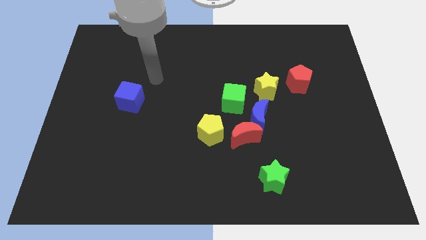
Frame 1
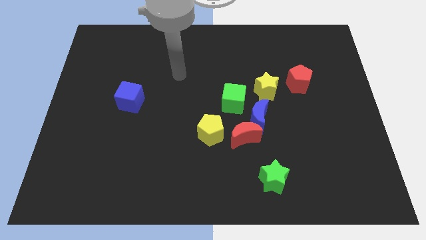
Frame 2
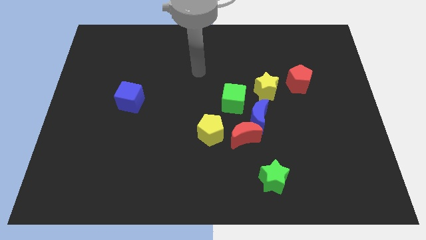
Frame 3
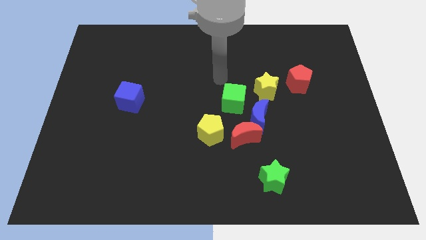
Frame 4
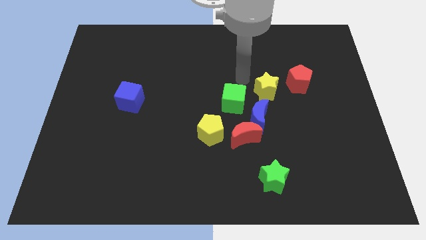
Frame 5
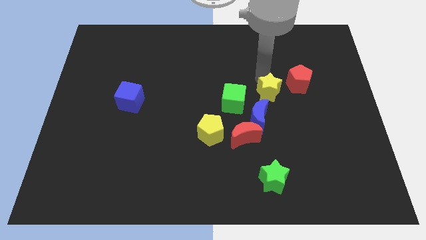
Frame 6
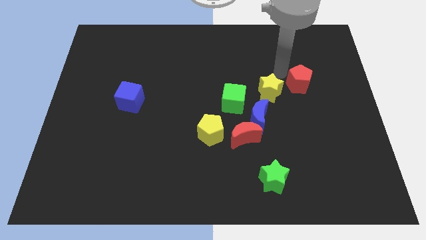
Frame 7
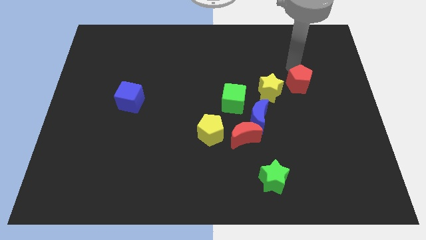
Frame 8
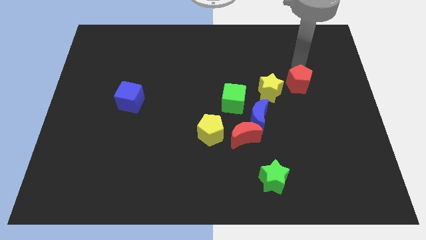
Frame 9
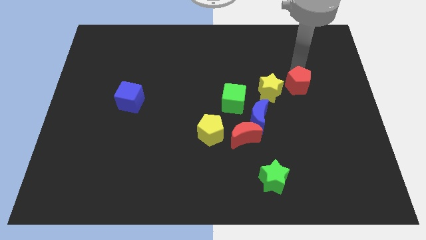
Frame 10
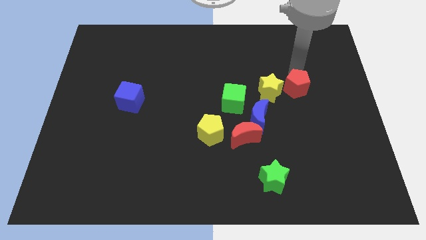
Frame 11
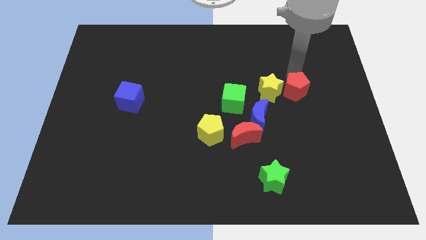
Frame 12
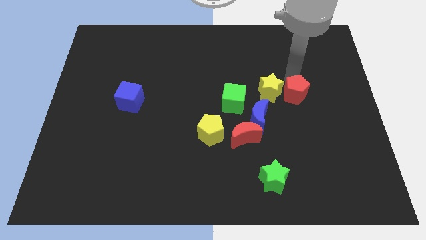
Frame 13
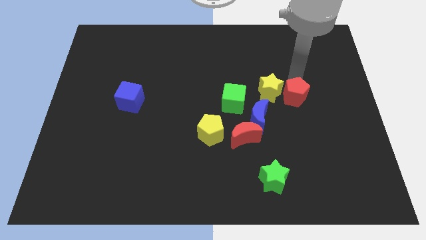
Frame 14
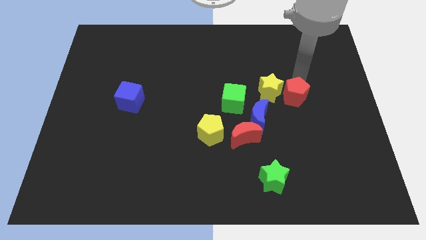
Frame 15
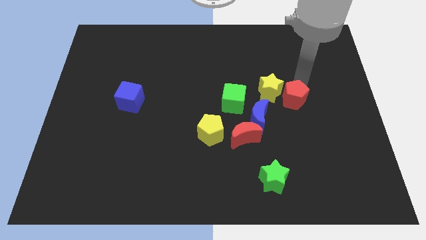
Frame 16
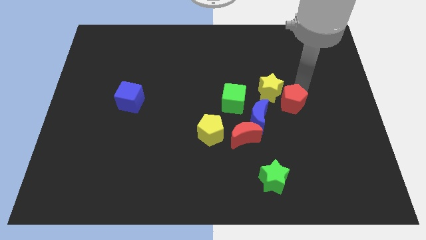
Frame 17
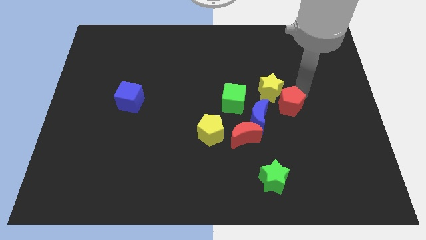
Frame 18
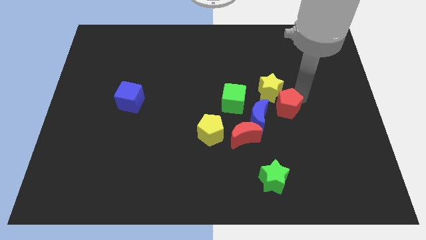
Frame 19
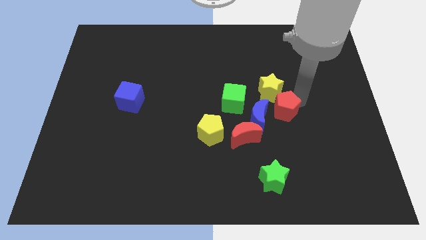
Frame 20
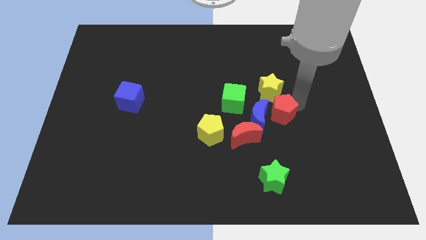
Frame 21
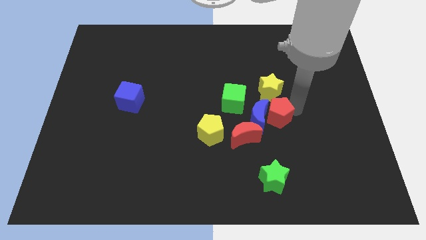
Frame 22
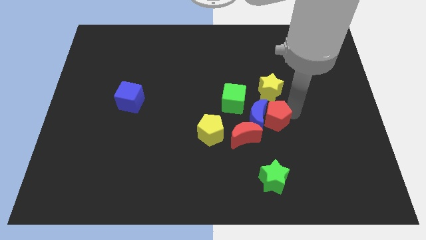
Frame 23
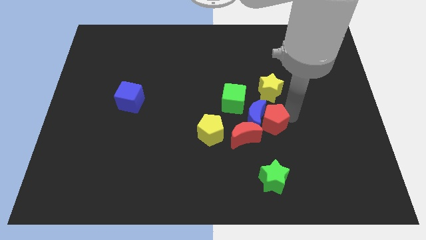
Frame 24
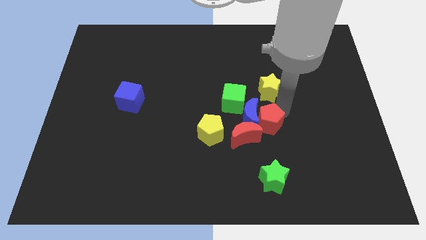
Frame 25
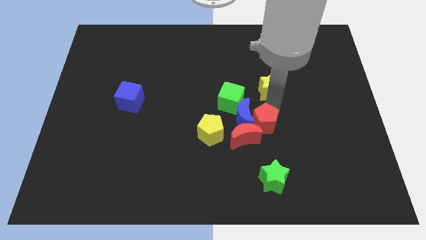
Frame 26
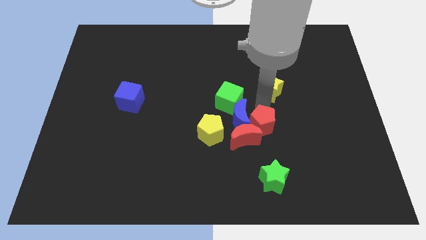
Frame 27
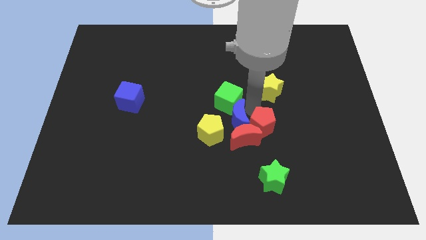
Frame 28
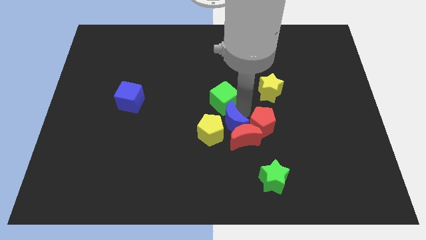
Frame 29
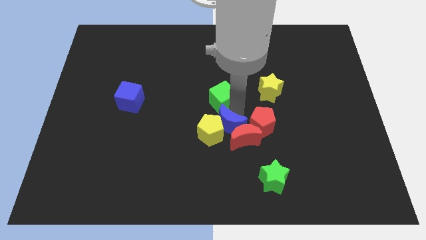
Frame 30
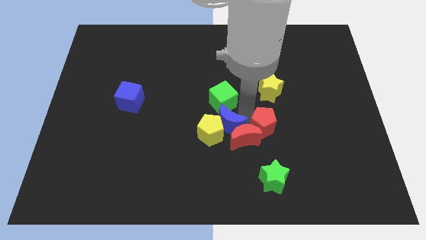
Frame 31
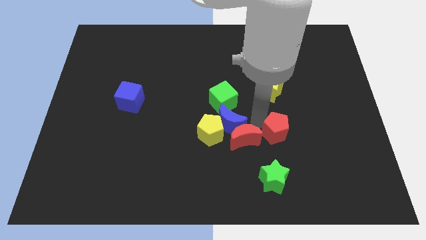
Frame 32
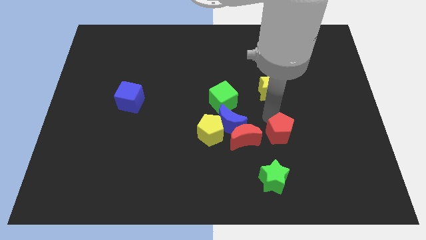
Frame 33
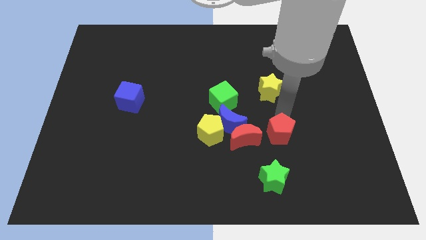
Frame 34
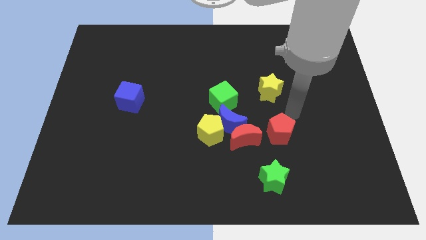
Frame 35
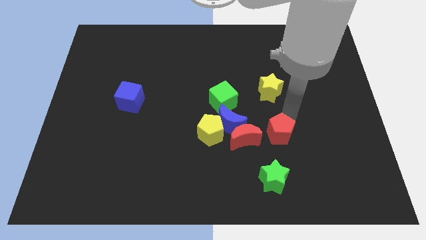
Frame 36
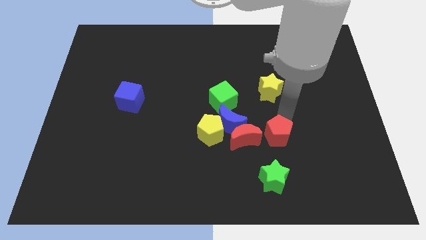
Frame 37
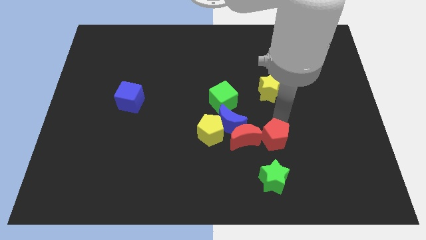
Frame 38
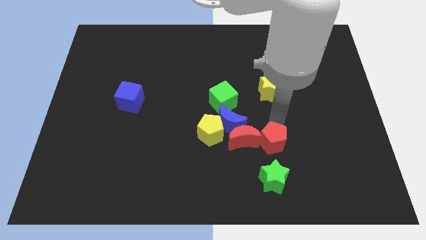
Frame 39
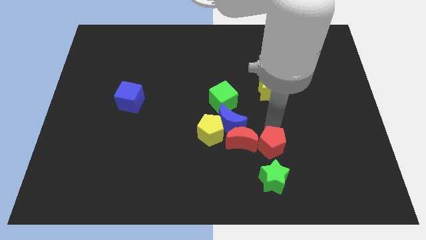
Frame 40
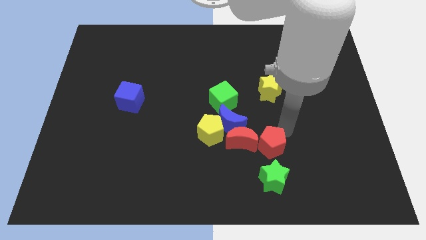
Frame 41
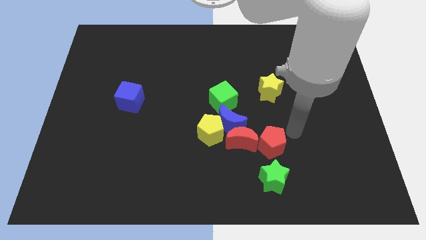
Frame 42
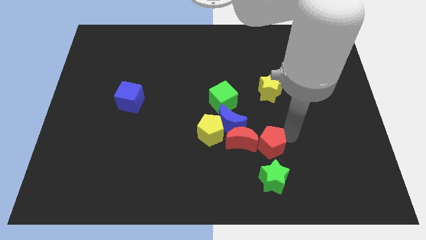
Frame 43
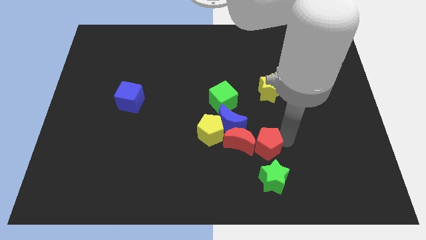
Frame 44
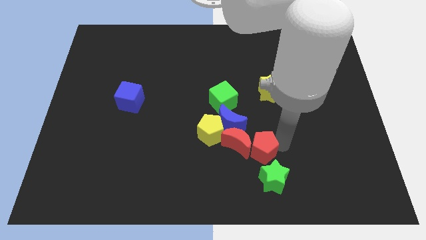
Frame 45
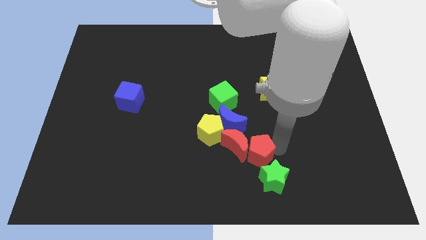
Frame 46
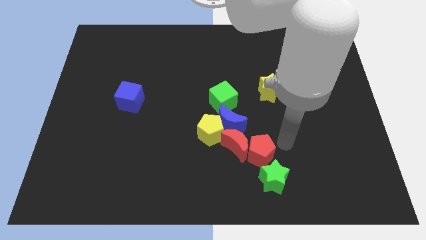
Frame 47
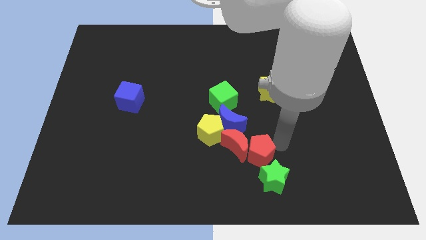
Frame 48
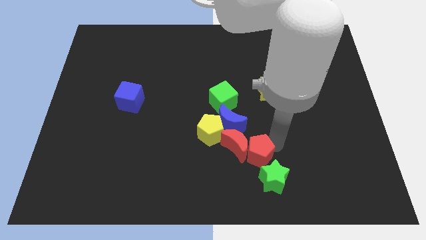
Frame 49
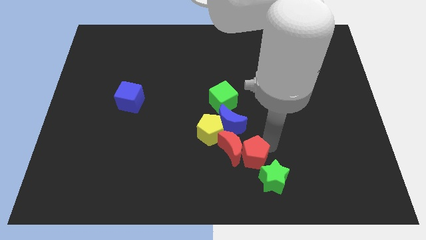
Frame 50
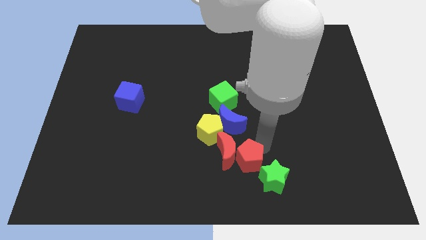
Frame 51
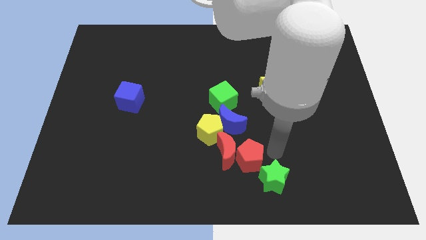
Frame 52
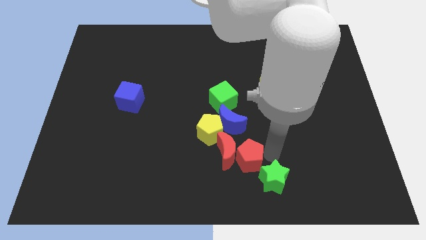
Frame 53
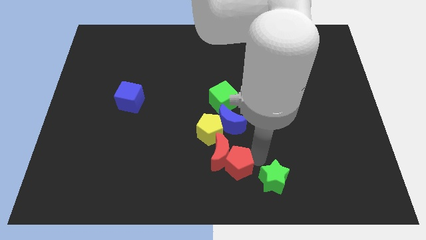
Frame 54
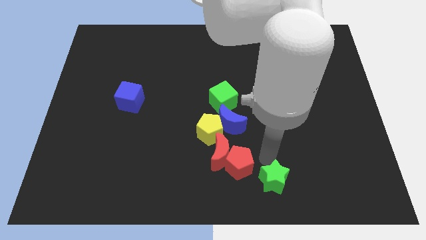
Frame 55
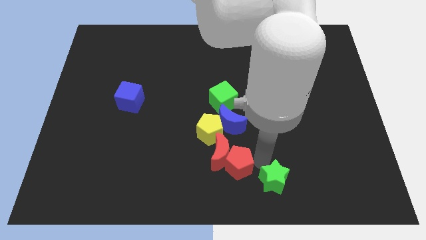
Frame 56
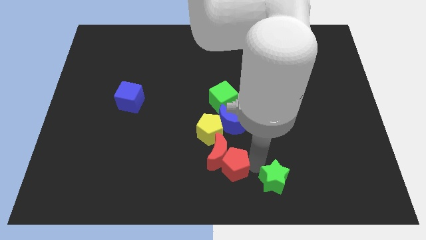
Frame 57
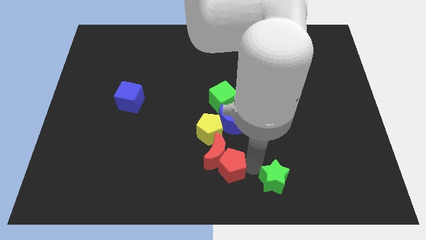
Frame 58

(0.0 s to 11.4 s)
push the red pentagon below the yellow pentagon

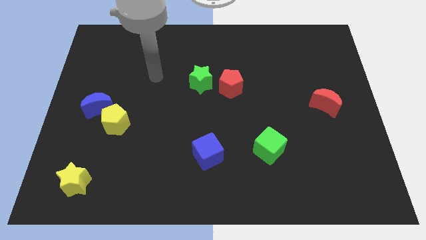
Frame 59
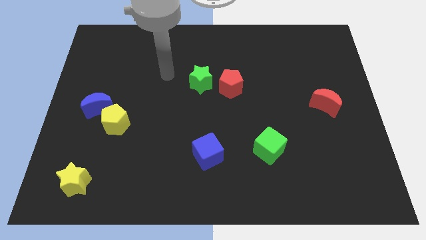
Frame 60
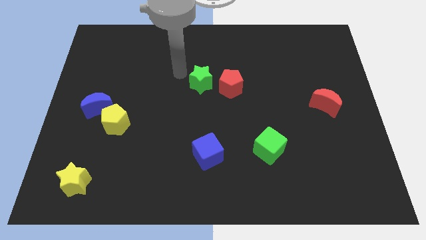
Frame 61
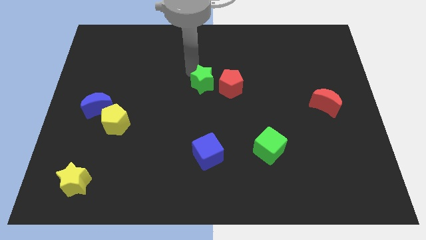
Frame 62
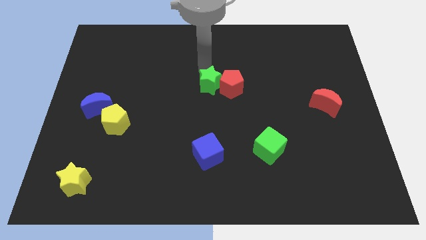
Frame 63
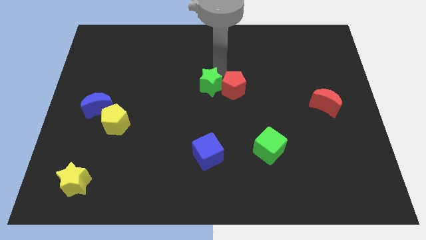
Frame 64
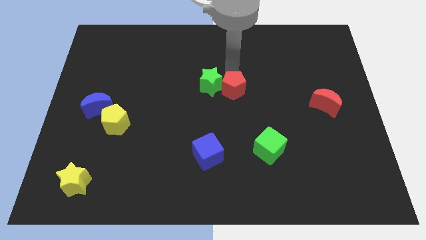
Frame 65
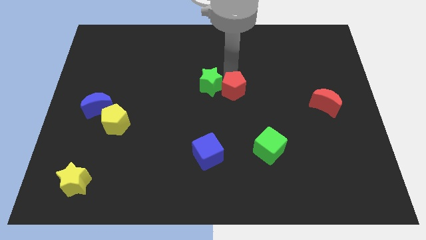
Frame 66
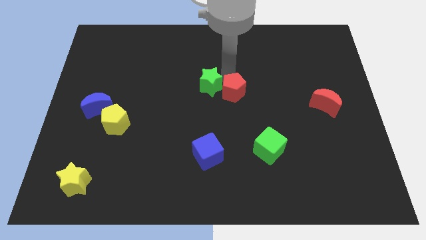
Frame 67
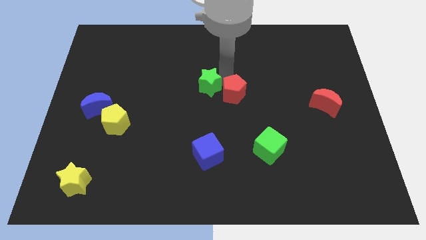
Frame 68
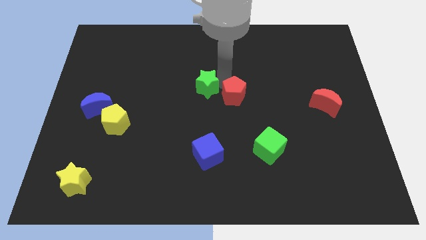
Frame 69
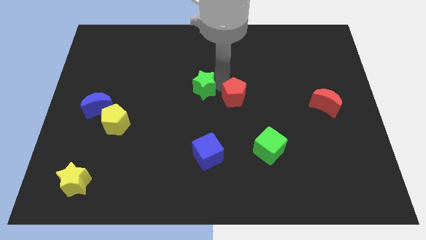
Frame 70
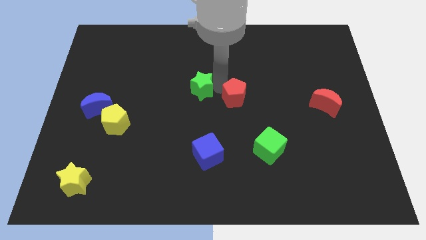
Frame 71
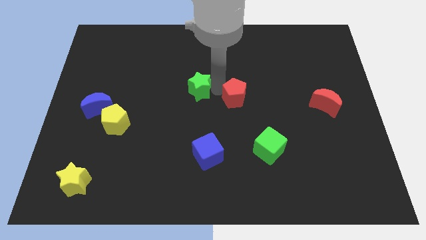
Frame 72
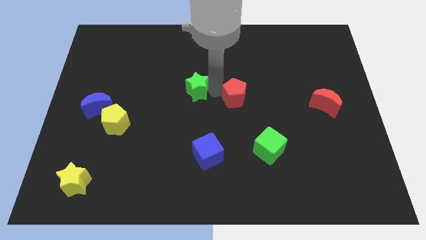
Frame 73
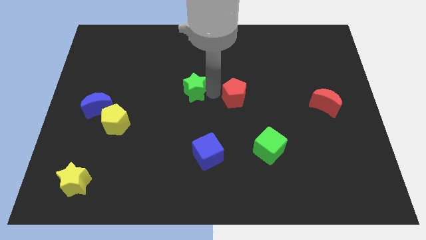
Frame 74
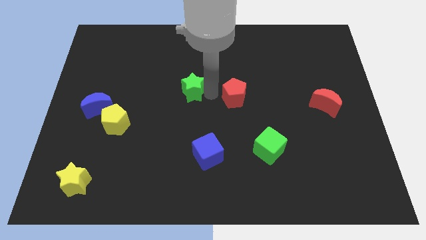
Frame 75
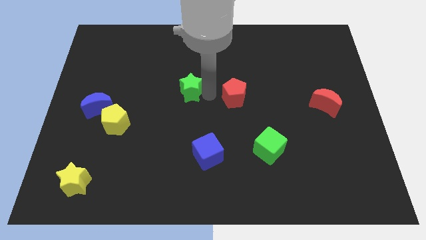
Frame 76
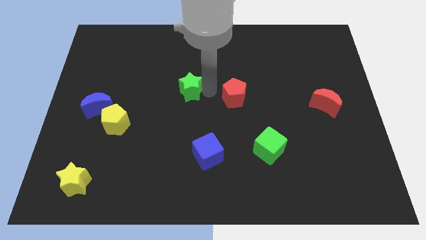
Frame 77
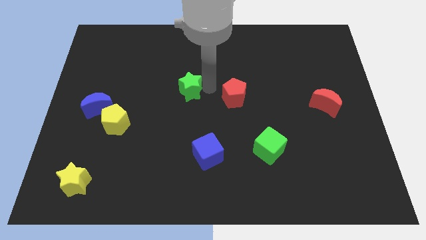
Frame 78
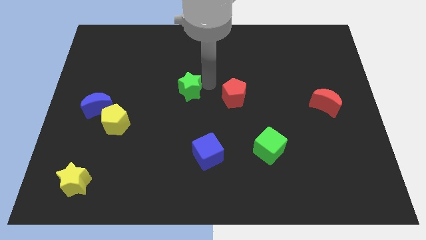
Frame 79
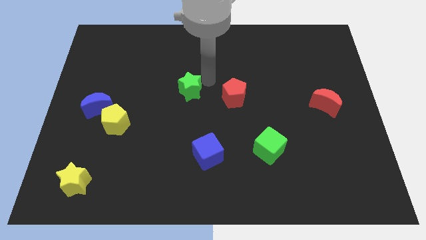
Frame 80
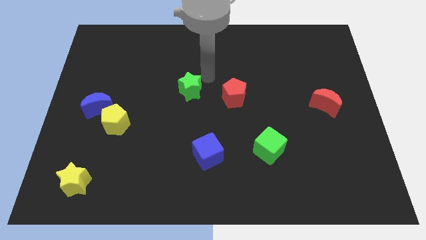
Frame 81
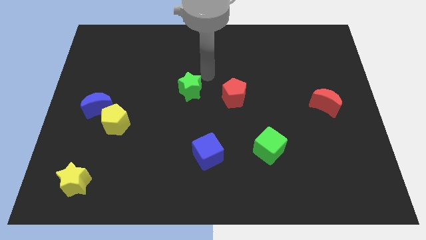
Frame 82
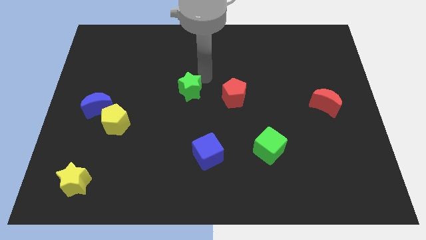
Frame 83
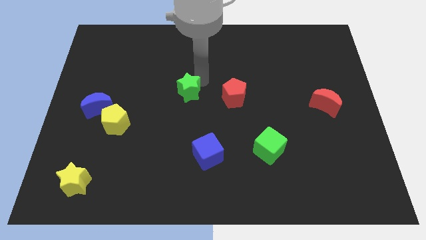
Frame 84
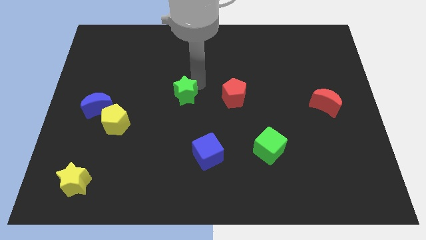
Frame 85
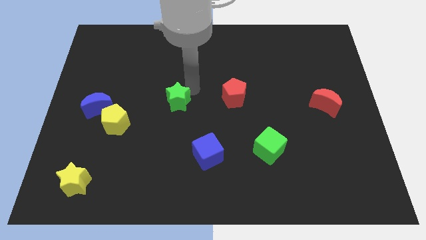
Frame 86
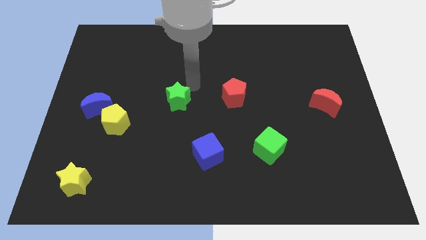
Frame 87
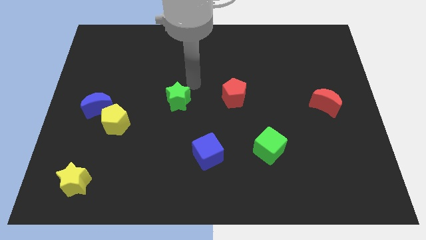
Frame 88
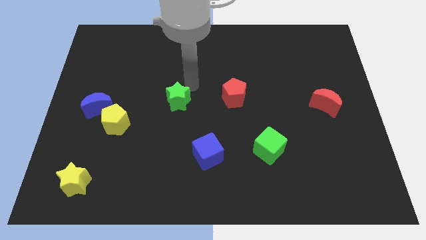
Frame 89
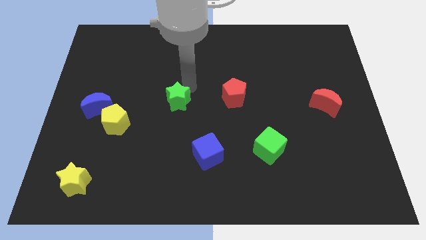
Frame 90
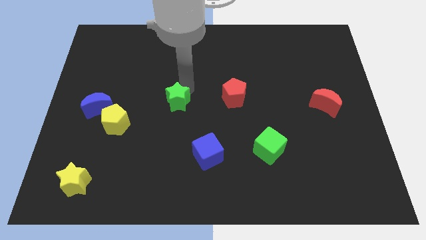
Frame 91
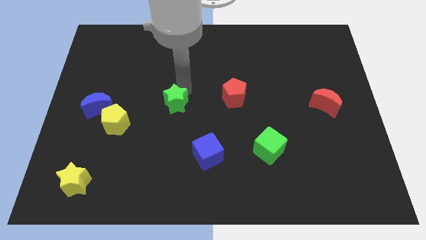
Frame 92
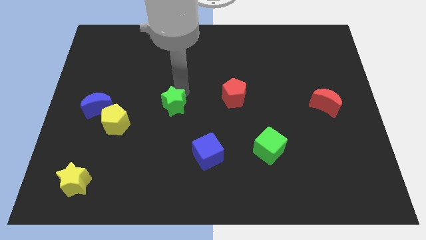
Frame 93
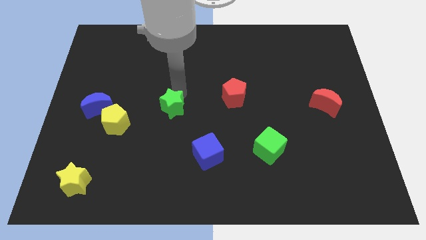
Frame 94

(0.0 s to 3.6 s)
move the green star to the right of the yellow pentagon
